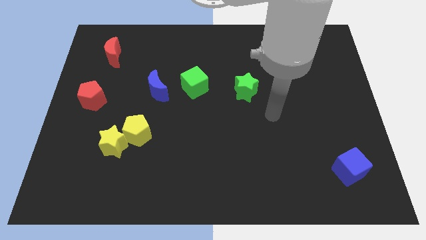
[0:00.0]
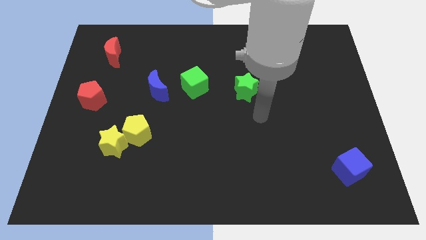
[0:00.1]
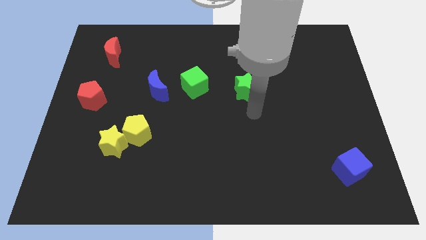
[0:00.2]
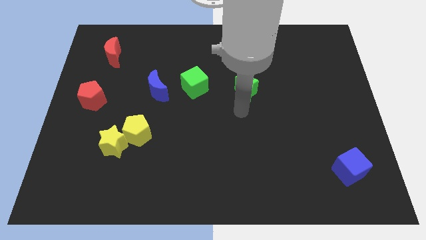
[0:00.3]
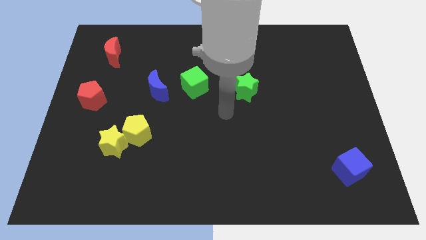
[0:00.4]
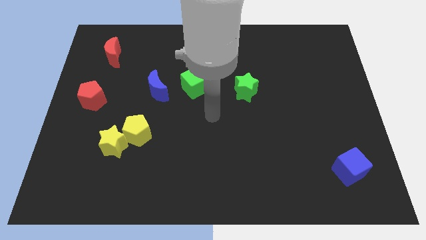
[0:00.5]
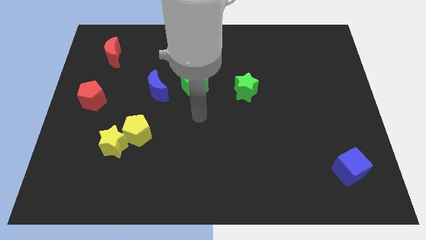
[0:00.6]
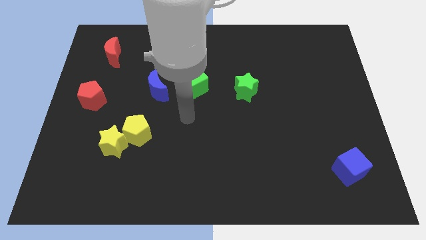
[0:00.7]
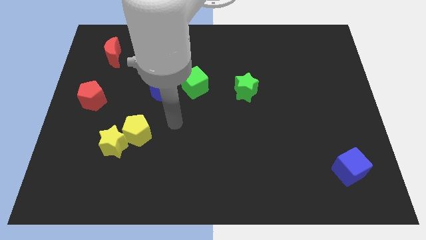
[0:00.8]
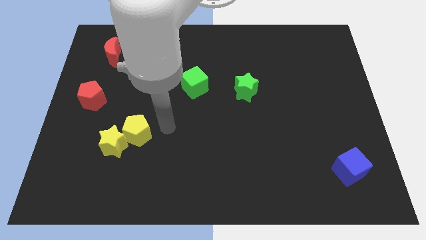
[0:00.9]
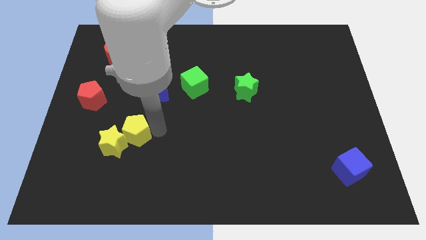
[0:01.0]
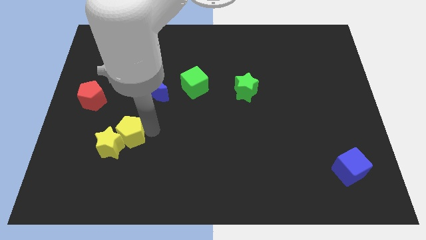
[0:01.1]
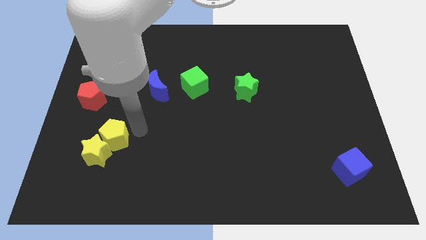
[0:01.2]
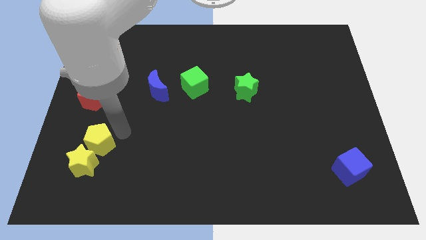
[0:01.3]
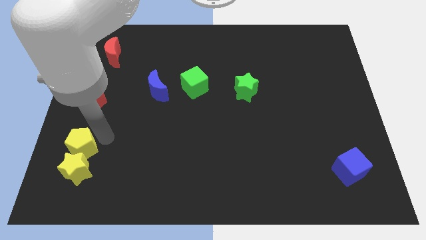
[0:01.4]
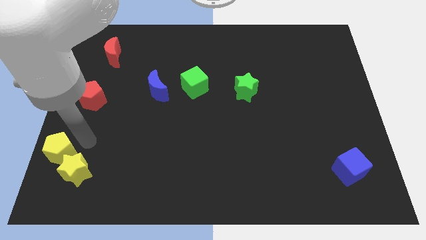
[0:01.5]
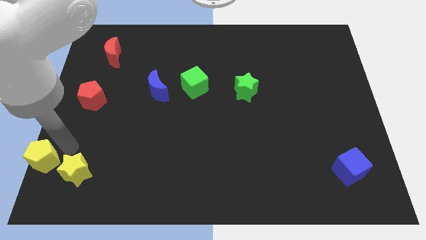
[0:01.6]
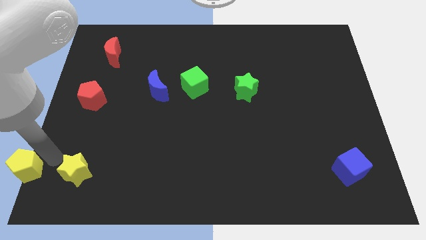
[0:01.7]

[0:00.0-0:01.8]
pull the yellow star apart from the yellow pentagon

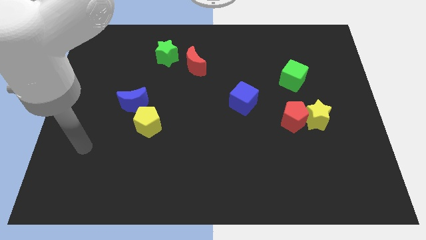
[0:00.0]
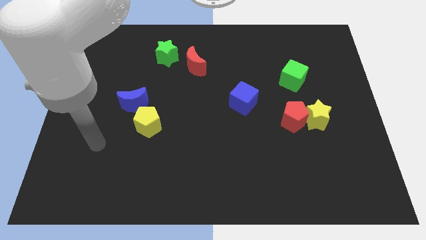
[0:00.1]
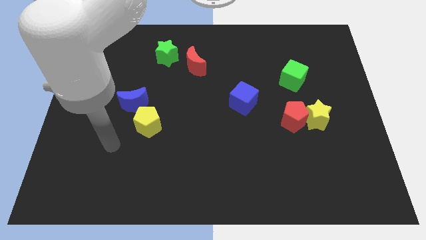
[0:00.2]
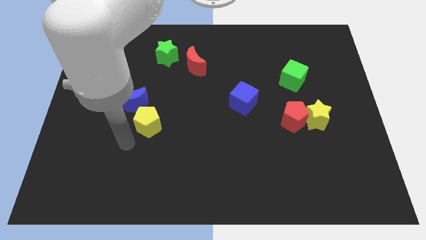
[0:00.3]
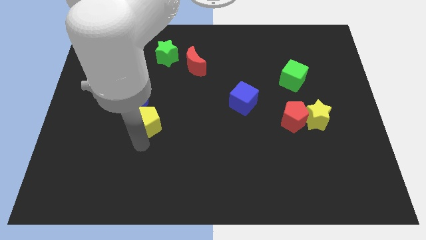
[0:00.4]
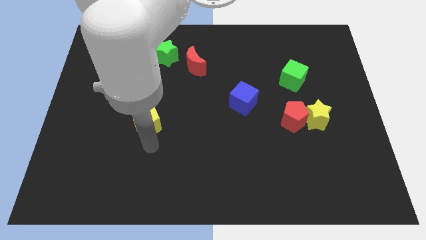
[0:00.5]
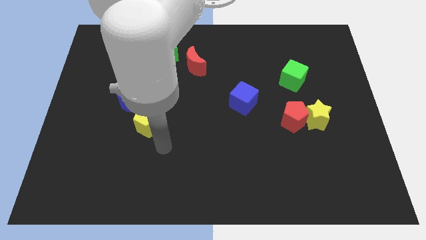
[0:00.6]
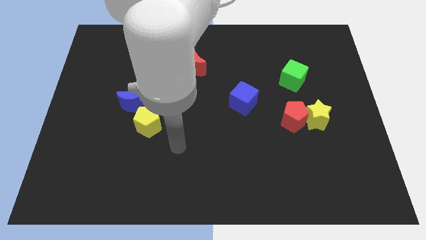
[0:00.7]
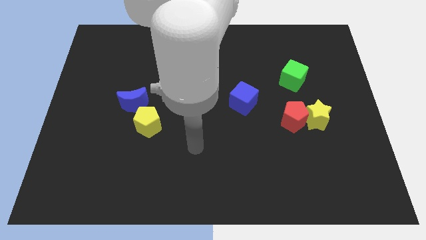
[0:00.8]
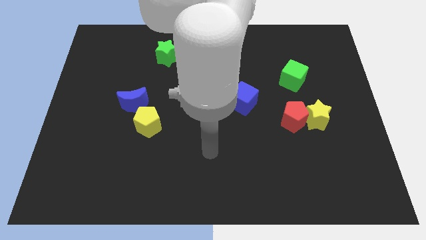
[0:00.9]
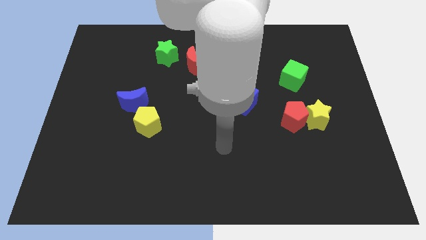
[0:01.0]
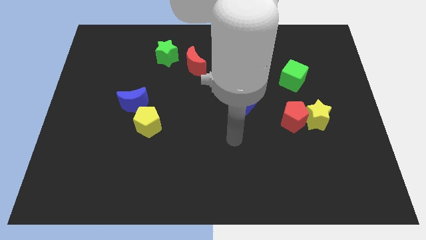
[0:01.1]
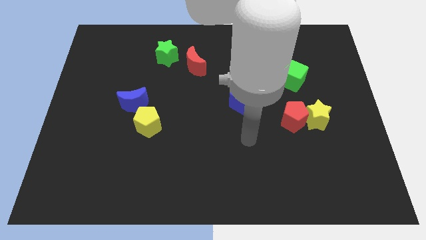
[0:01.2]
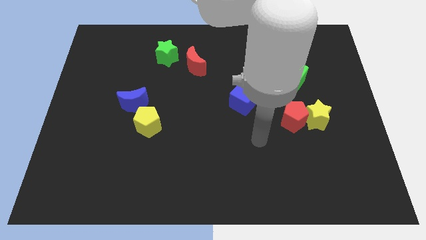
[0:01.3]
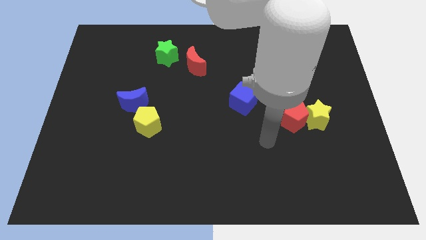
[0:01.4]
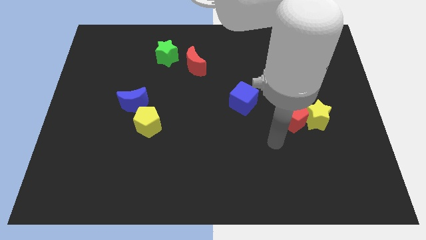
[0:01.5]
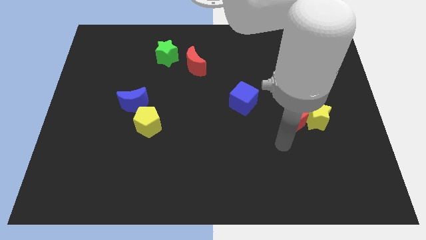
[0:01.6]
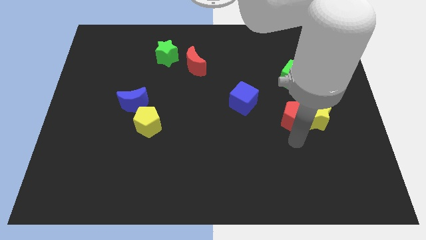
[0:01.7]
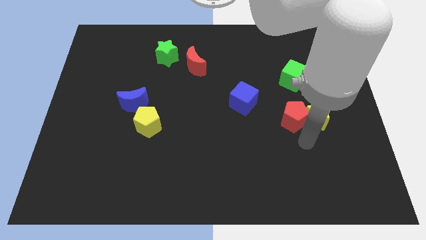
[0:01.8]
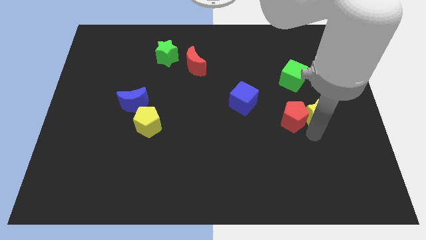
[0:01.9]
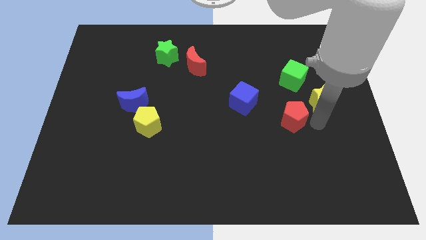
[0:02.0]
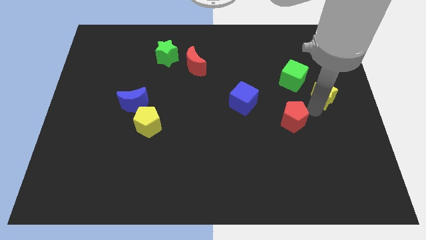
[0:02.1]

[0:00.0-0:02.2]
pull the red pentagon apart from the yellow star

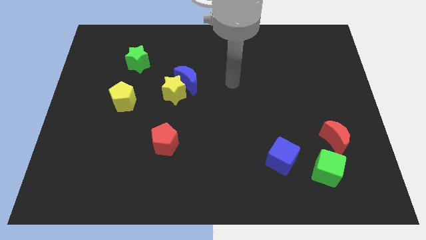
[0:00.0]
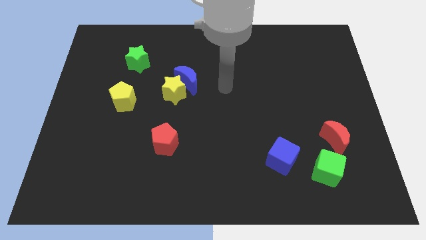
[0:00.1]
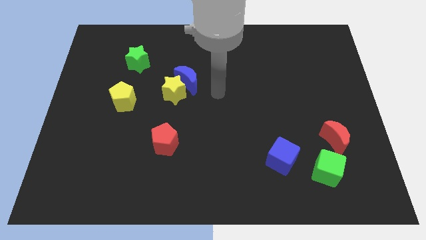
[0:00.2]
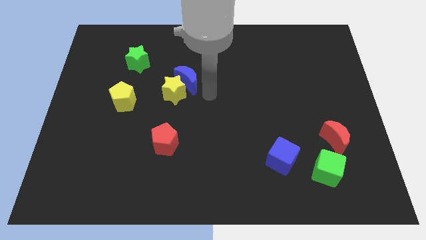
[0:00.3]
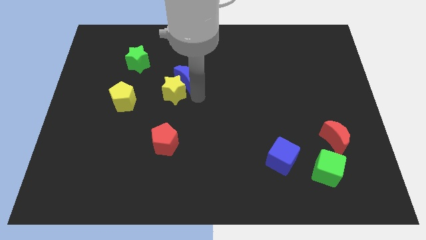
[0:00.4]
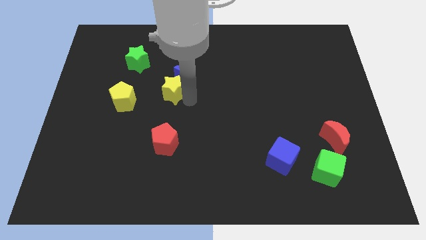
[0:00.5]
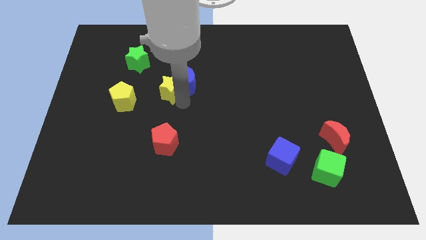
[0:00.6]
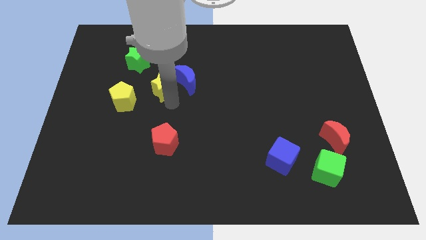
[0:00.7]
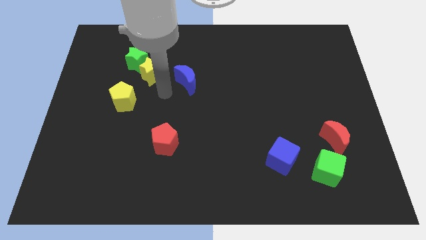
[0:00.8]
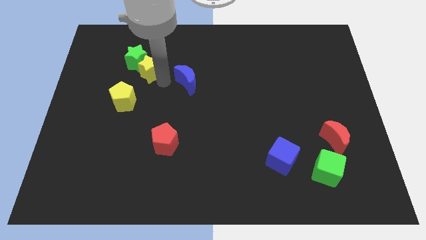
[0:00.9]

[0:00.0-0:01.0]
separate the blue moon from the yellow star

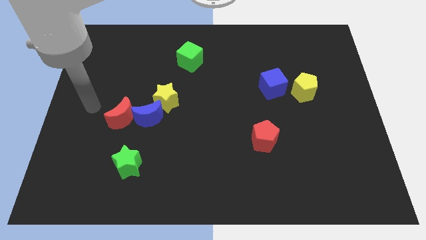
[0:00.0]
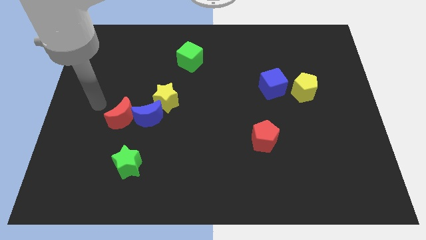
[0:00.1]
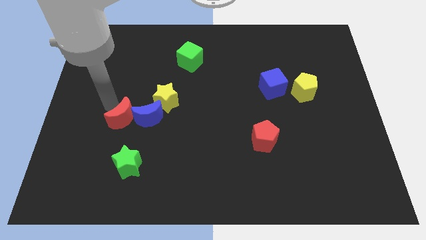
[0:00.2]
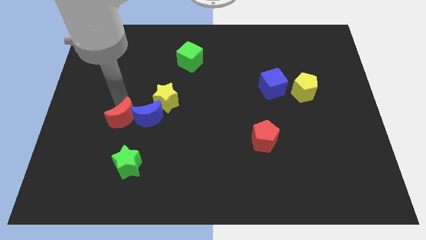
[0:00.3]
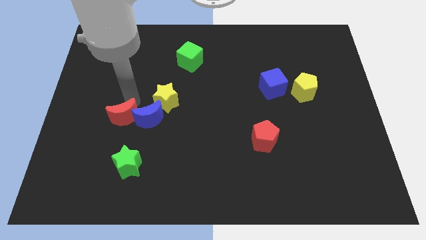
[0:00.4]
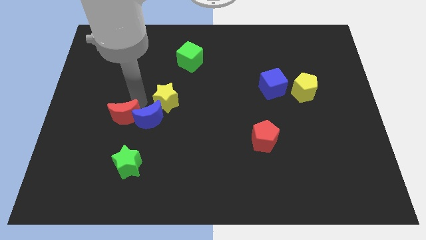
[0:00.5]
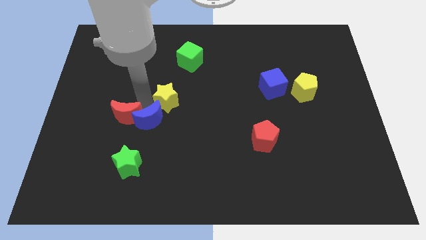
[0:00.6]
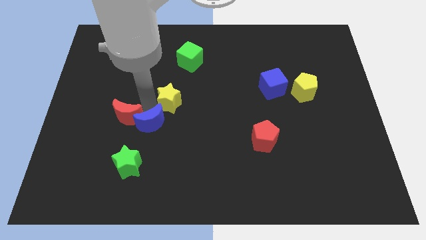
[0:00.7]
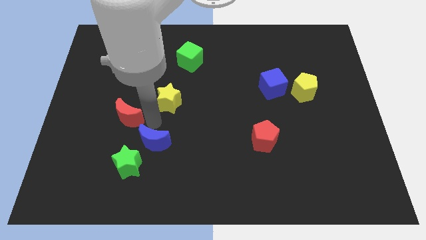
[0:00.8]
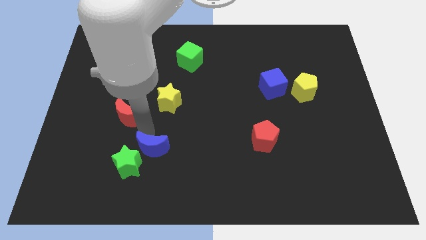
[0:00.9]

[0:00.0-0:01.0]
move the red moon away from the blue moon

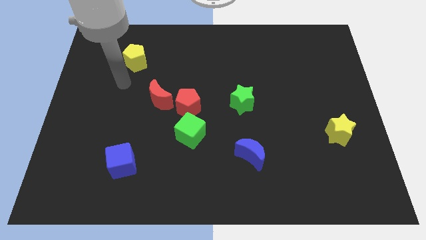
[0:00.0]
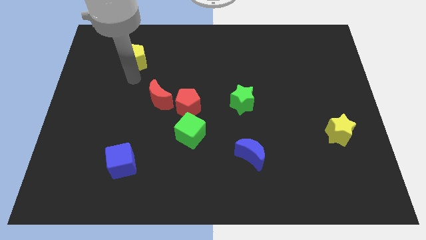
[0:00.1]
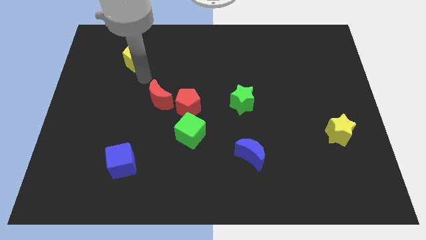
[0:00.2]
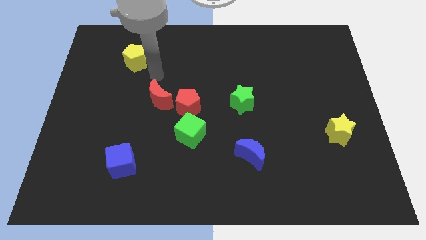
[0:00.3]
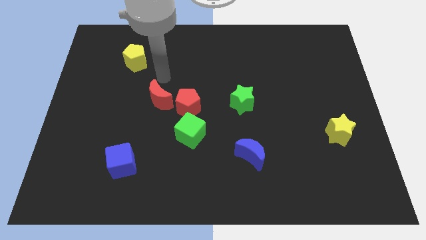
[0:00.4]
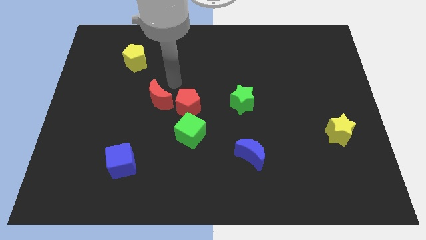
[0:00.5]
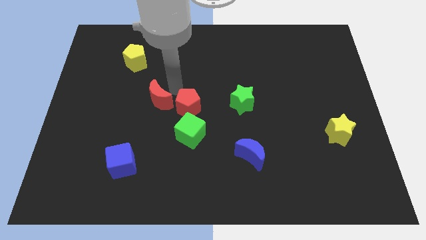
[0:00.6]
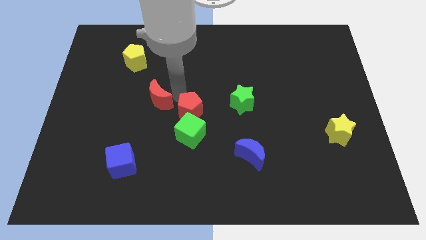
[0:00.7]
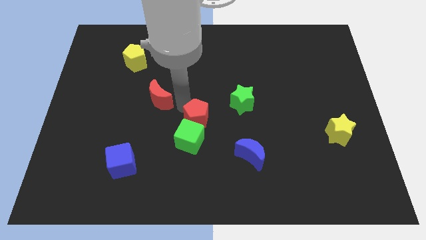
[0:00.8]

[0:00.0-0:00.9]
pull the red moon apart from the red pentagon

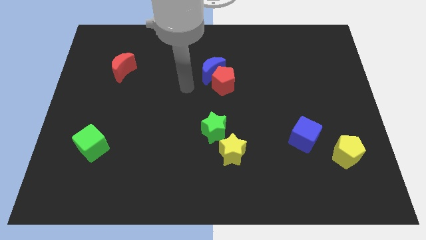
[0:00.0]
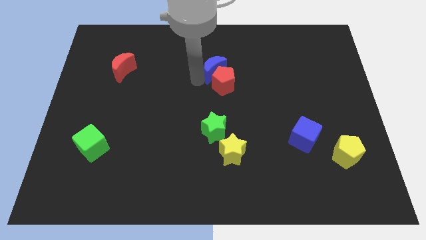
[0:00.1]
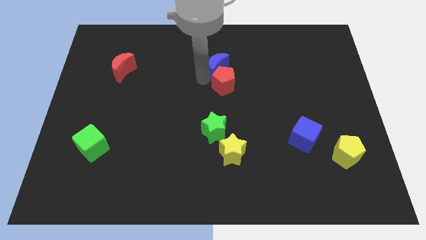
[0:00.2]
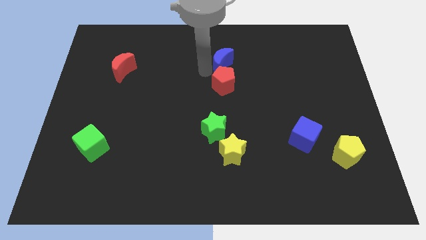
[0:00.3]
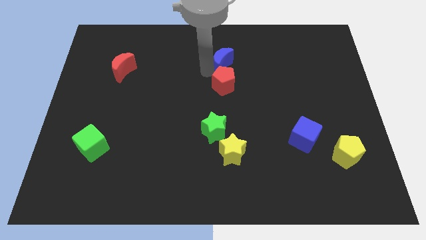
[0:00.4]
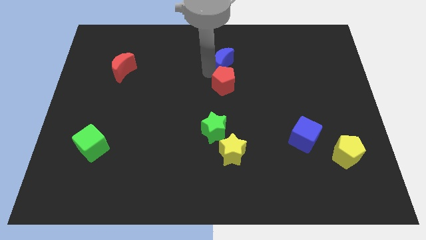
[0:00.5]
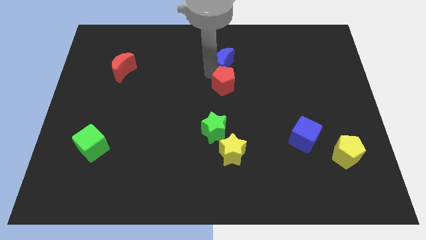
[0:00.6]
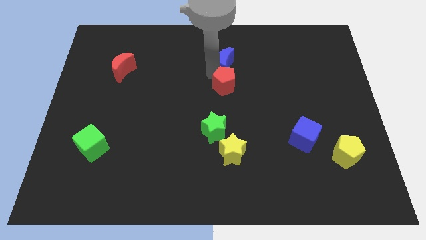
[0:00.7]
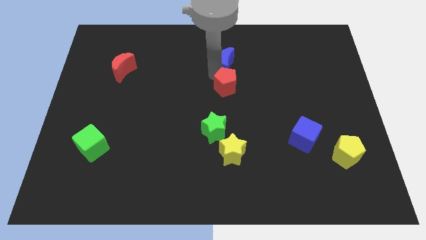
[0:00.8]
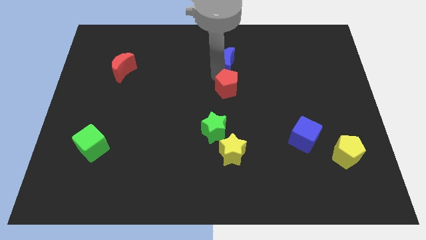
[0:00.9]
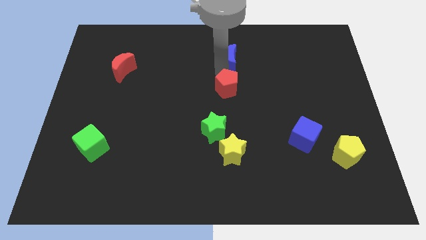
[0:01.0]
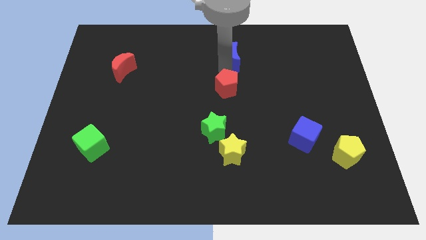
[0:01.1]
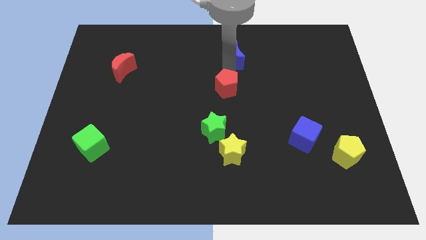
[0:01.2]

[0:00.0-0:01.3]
move the red pentagon away from the blue moon

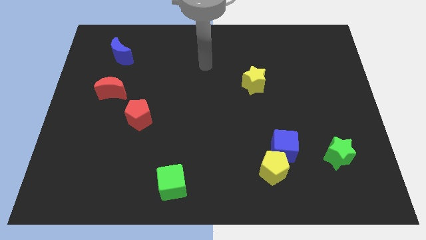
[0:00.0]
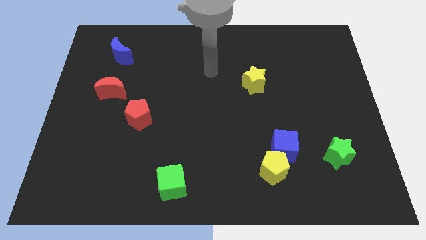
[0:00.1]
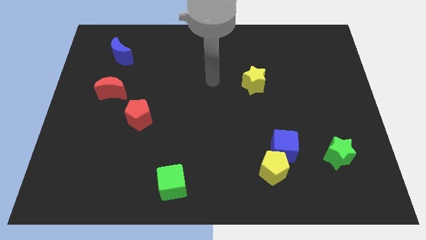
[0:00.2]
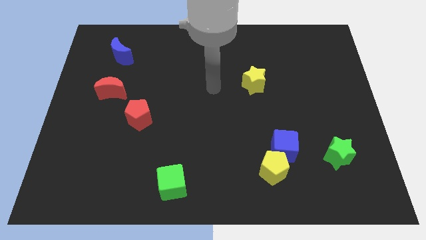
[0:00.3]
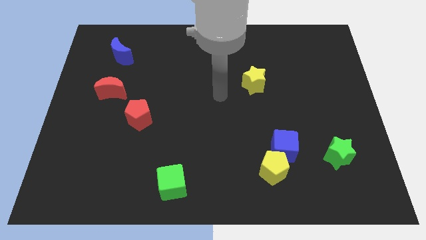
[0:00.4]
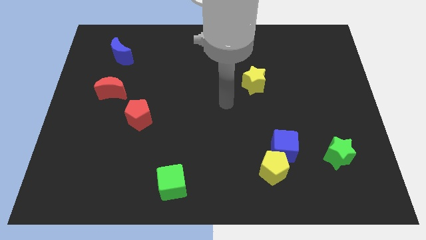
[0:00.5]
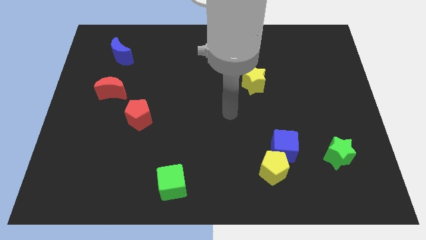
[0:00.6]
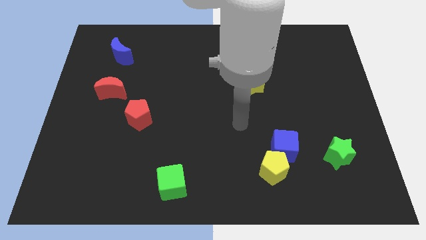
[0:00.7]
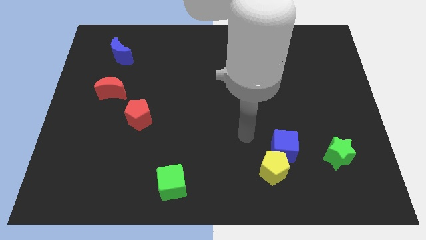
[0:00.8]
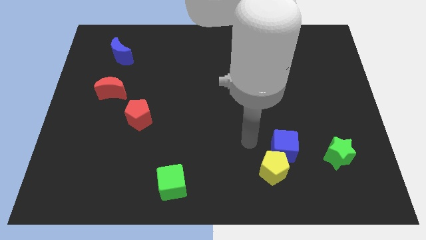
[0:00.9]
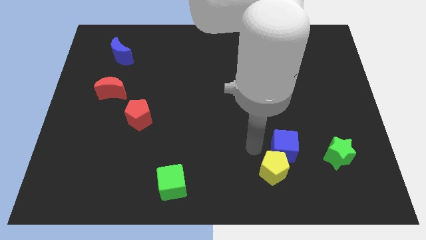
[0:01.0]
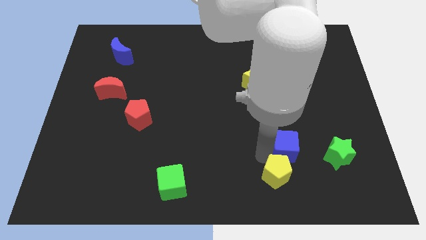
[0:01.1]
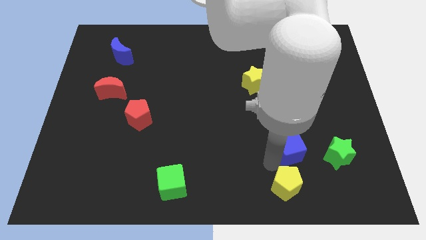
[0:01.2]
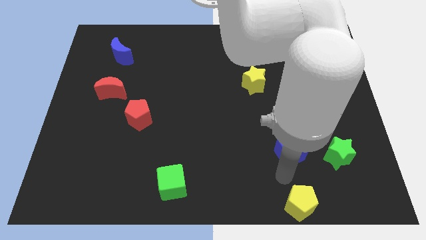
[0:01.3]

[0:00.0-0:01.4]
move the blue cube away from the yellow pentagon
